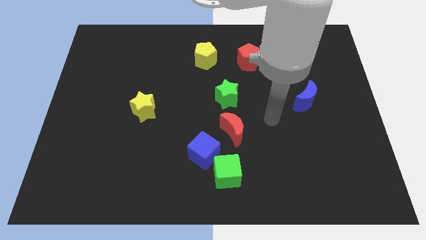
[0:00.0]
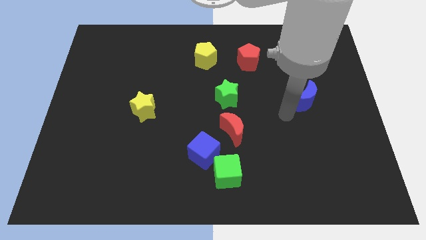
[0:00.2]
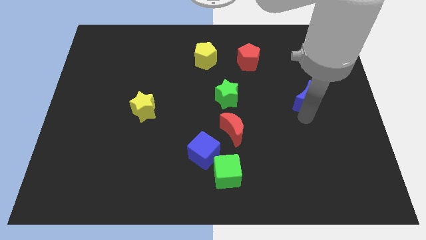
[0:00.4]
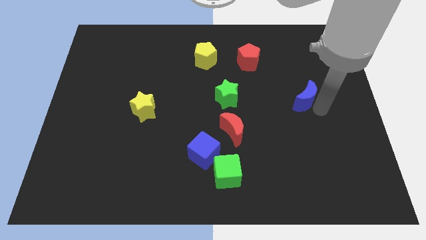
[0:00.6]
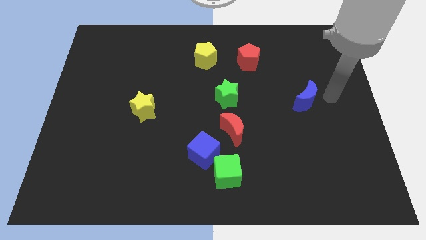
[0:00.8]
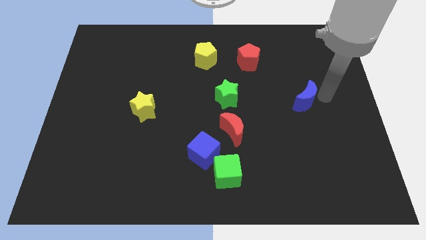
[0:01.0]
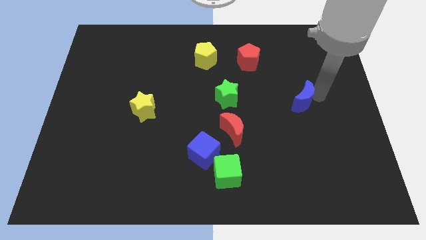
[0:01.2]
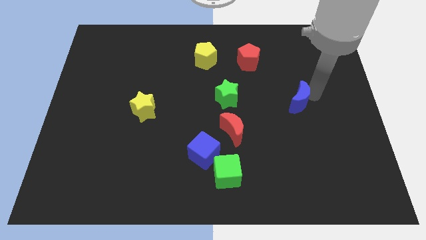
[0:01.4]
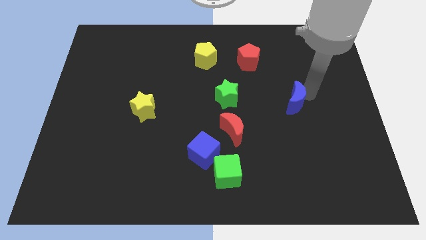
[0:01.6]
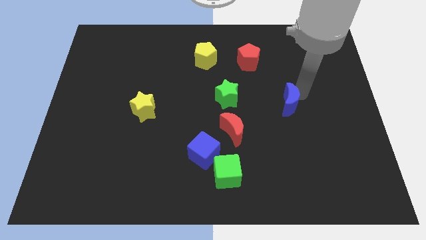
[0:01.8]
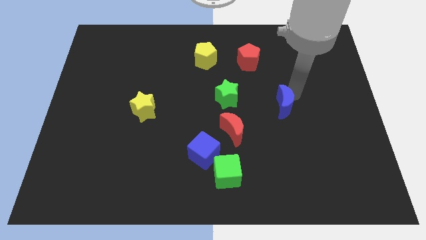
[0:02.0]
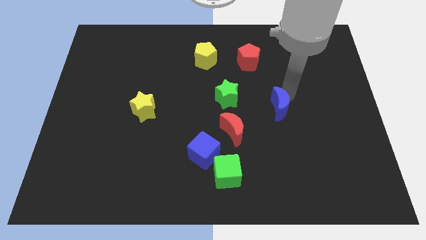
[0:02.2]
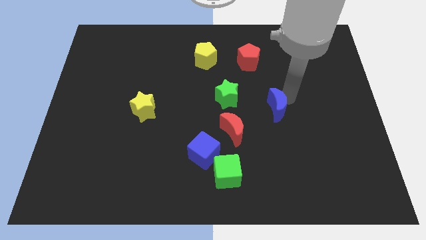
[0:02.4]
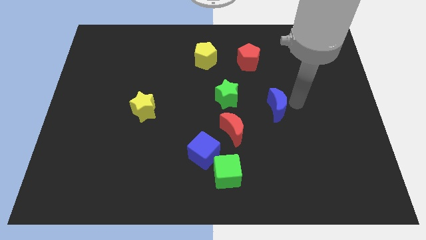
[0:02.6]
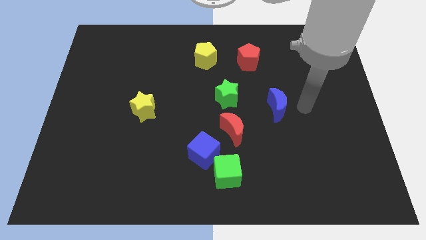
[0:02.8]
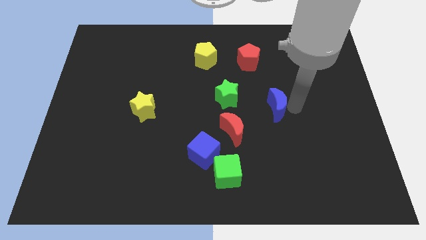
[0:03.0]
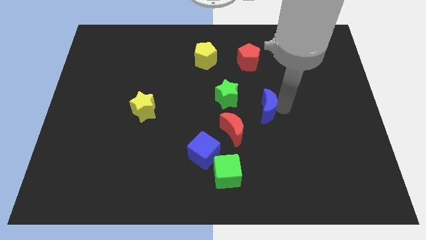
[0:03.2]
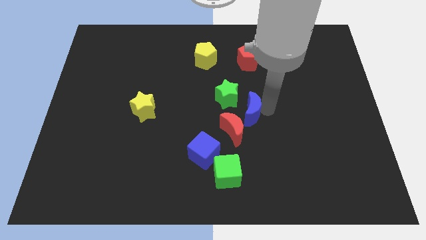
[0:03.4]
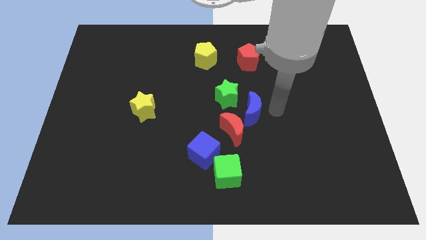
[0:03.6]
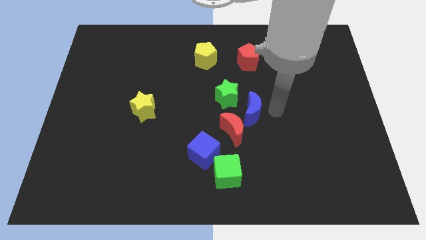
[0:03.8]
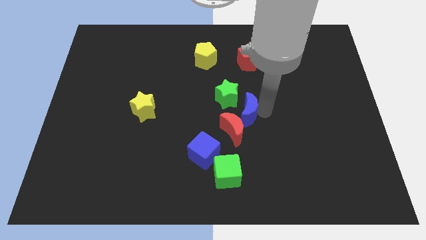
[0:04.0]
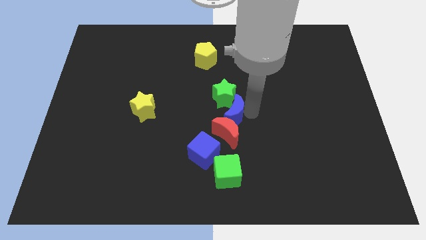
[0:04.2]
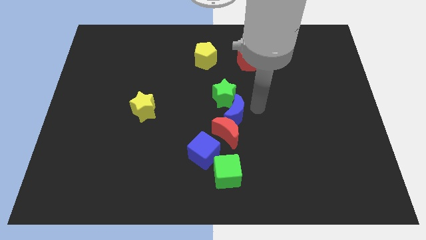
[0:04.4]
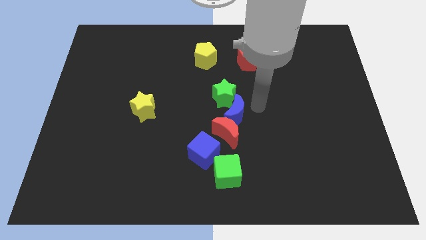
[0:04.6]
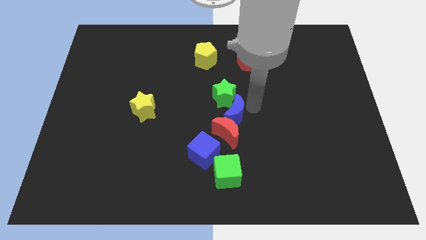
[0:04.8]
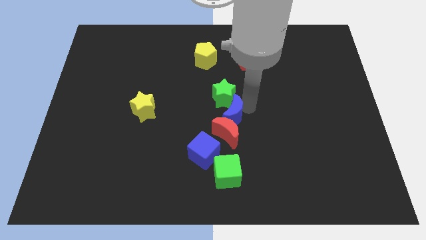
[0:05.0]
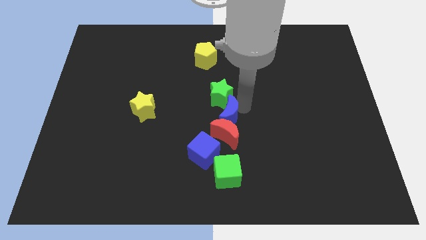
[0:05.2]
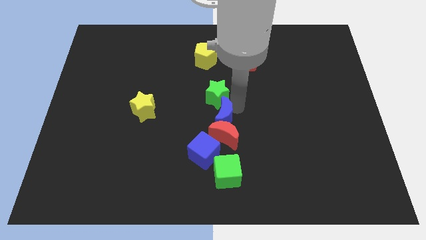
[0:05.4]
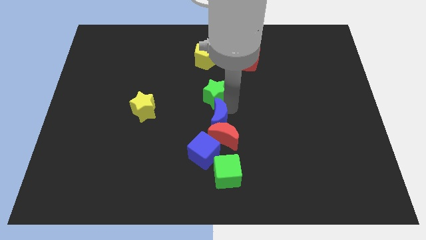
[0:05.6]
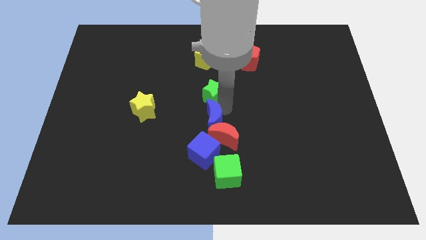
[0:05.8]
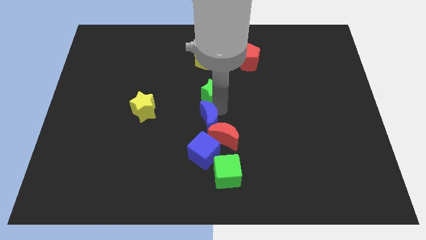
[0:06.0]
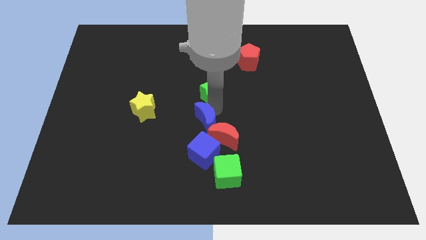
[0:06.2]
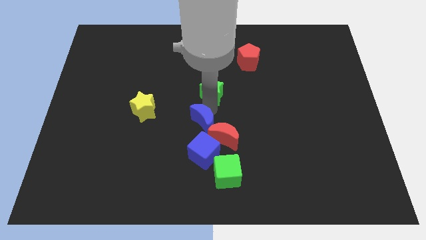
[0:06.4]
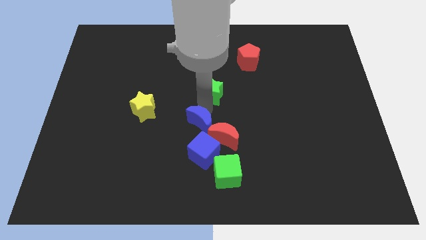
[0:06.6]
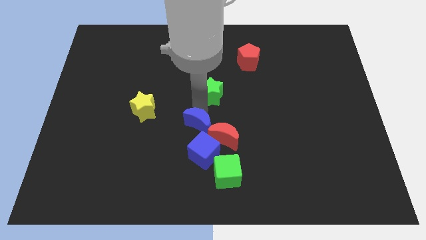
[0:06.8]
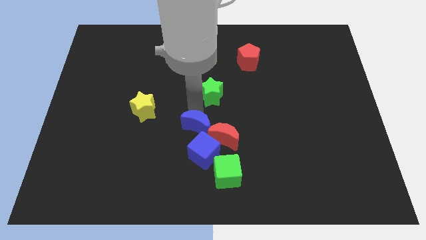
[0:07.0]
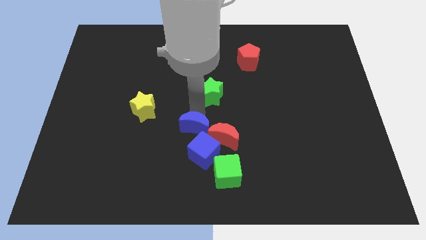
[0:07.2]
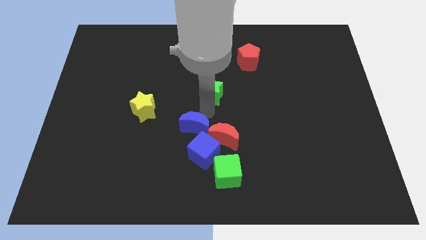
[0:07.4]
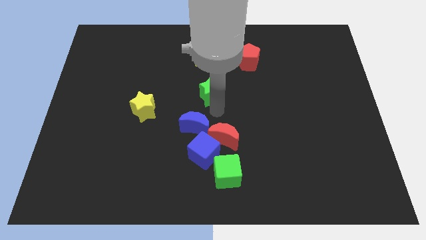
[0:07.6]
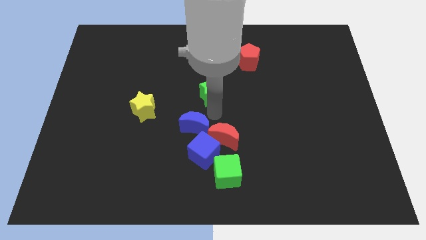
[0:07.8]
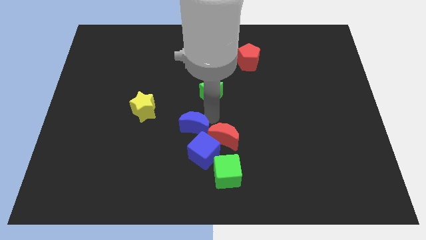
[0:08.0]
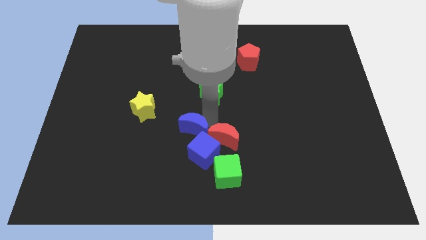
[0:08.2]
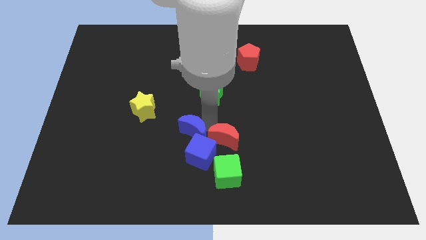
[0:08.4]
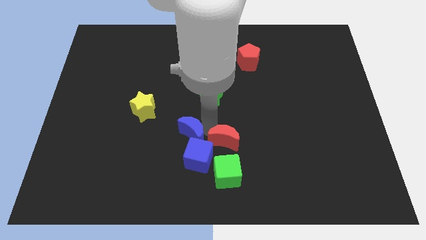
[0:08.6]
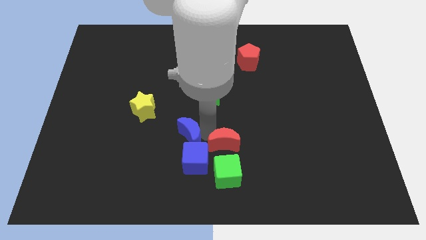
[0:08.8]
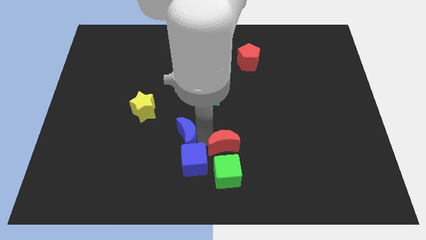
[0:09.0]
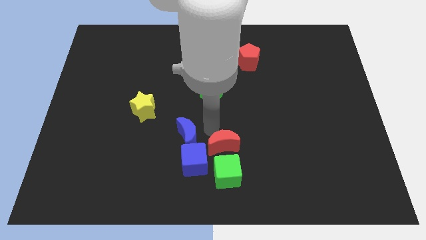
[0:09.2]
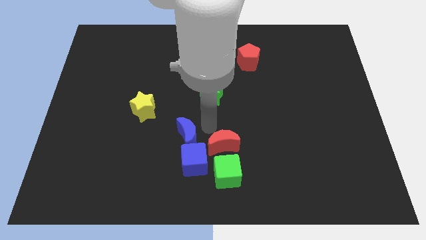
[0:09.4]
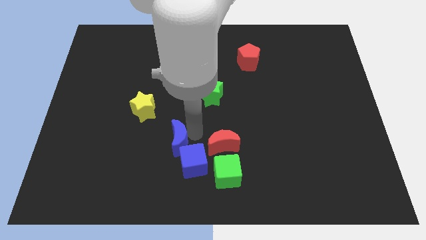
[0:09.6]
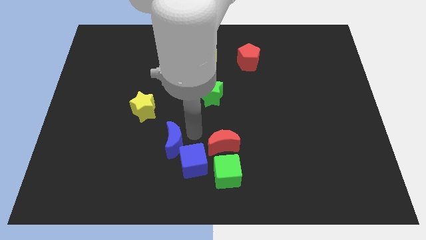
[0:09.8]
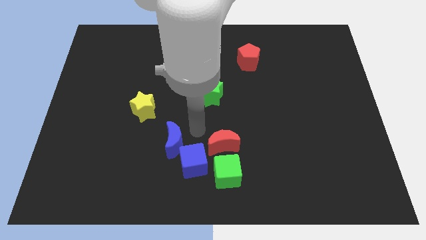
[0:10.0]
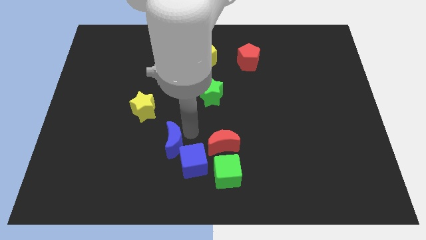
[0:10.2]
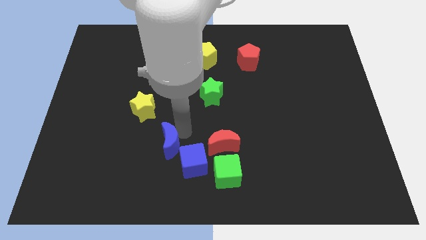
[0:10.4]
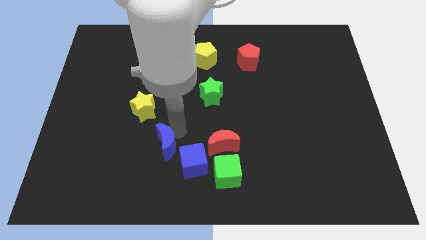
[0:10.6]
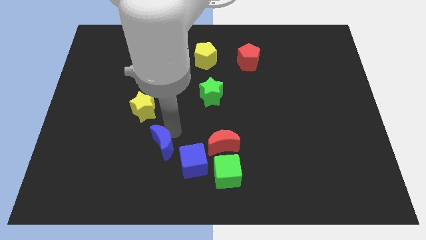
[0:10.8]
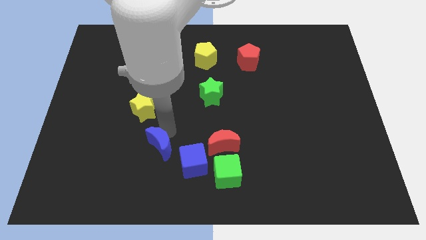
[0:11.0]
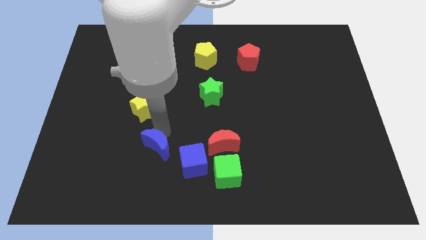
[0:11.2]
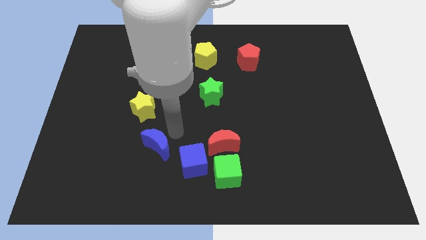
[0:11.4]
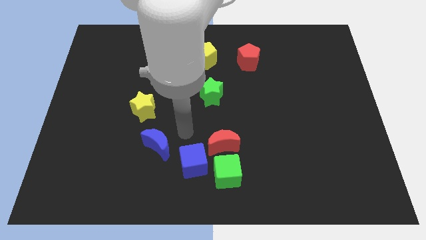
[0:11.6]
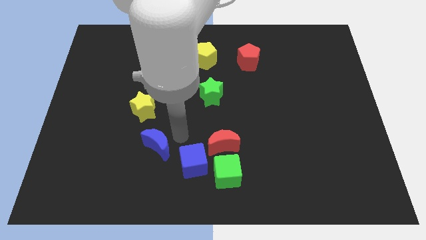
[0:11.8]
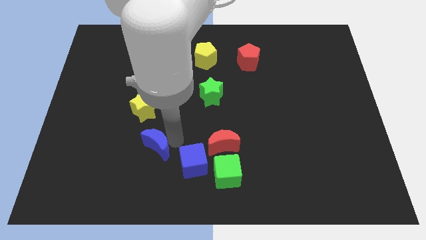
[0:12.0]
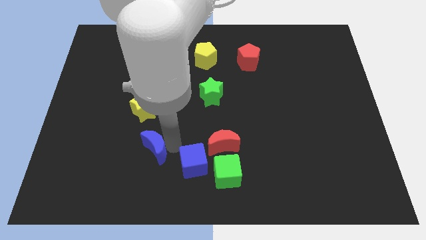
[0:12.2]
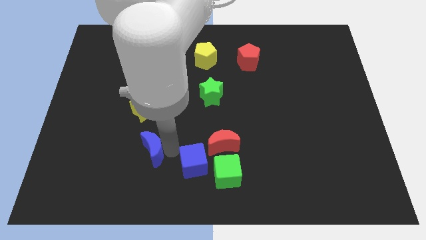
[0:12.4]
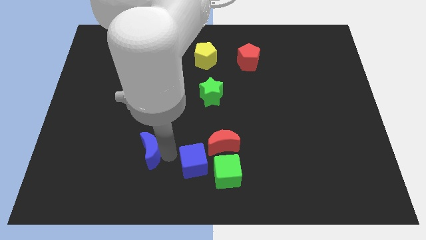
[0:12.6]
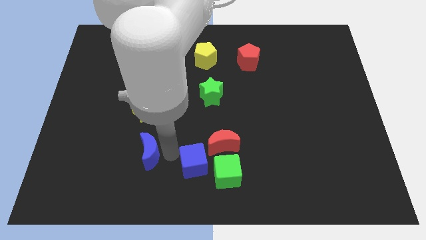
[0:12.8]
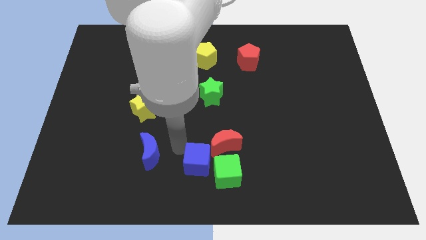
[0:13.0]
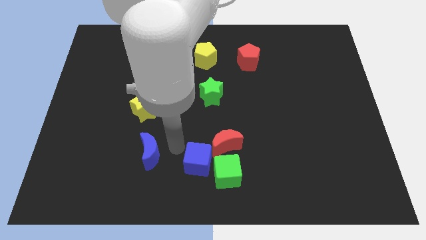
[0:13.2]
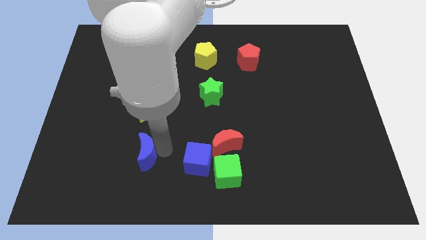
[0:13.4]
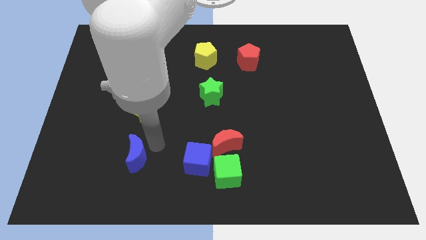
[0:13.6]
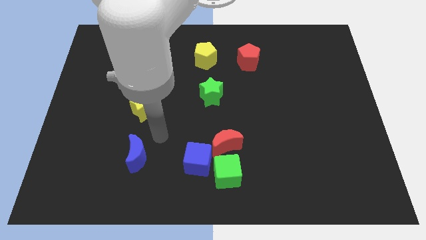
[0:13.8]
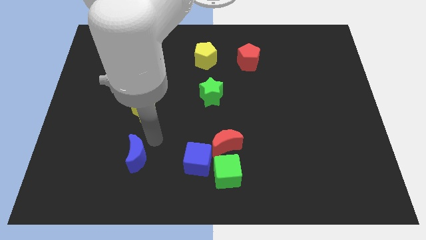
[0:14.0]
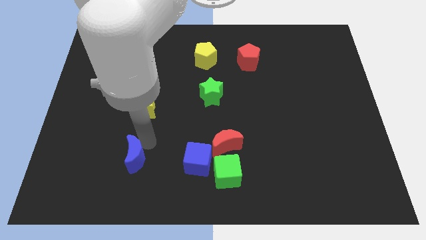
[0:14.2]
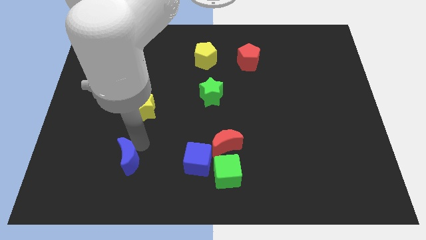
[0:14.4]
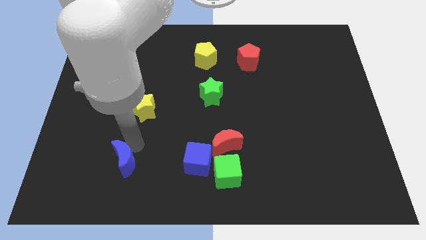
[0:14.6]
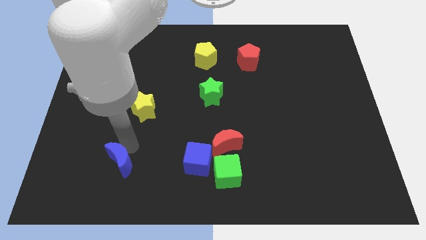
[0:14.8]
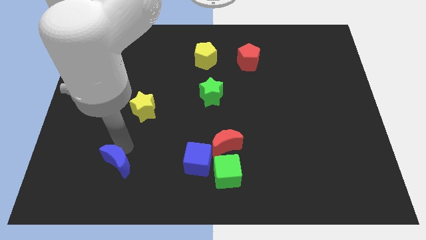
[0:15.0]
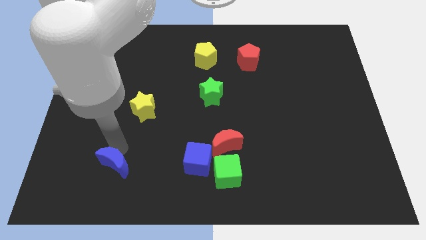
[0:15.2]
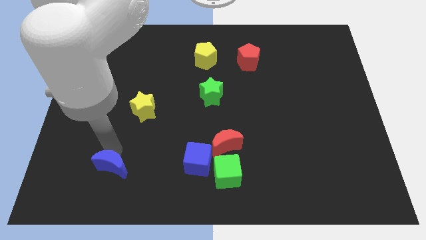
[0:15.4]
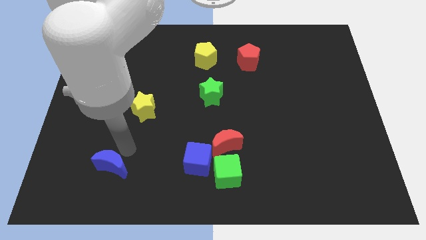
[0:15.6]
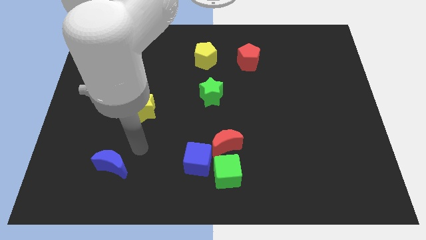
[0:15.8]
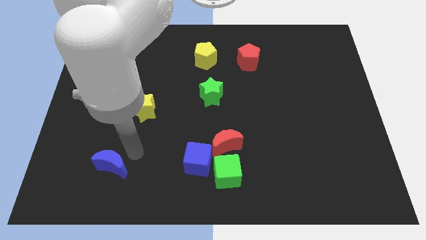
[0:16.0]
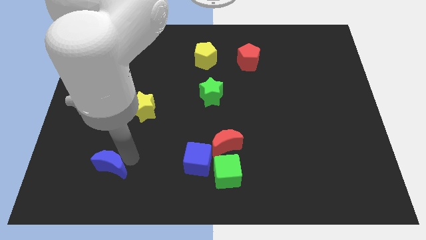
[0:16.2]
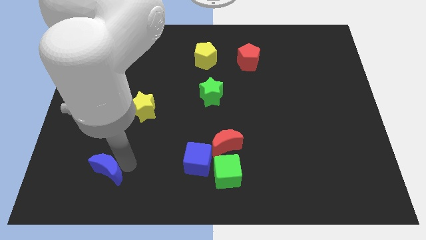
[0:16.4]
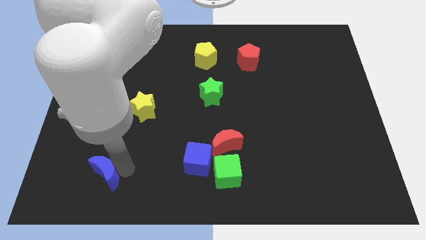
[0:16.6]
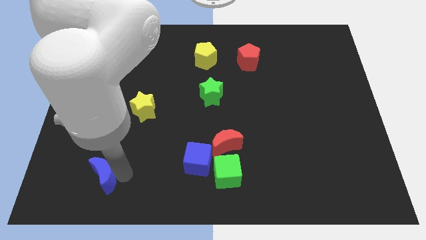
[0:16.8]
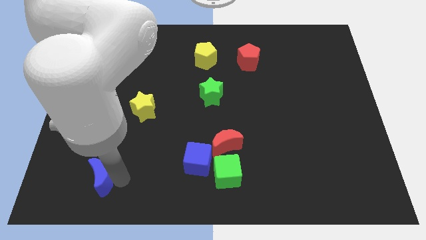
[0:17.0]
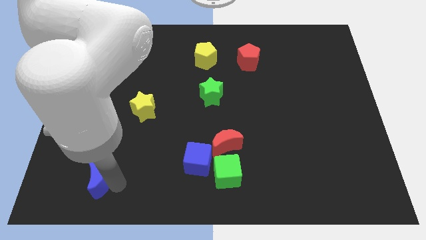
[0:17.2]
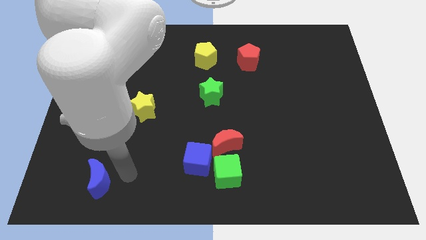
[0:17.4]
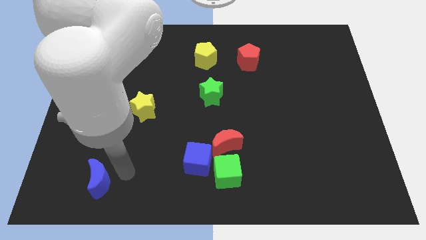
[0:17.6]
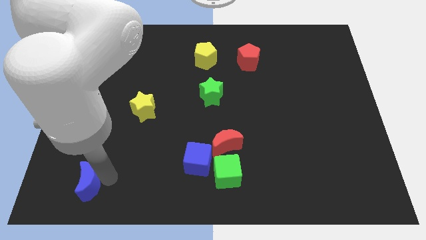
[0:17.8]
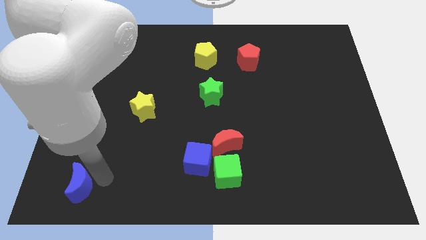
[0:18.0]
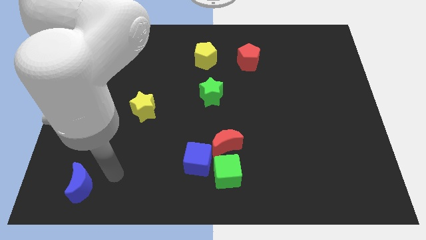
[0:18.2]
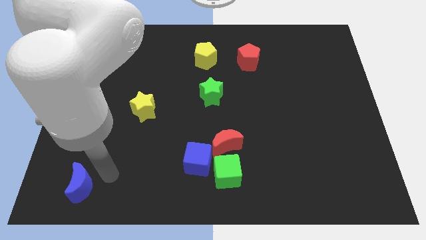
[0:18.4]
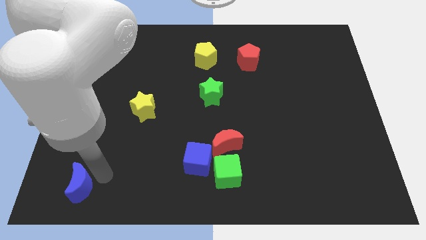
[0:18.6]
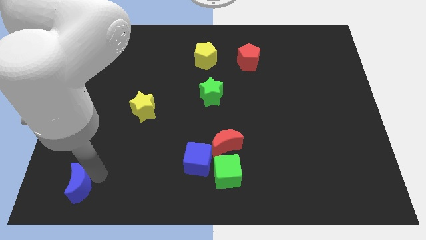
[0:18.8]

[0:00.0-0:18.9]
slide the blue moon to the bottom left of the board
